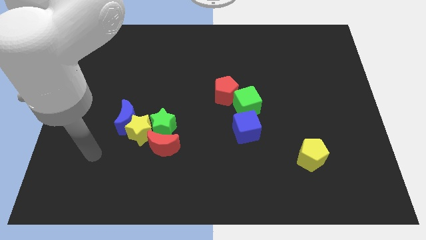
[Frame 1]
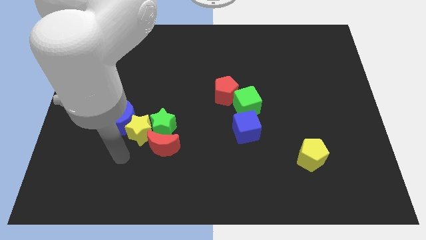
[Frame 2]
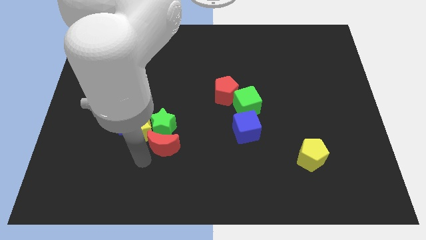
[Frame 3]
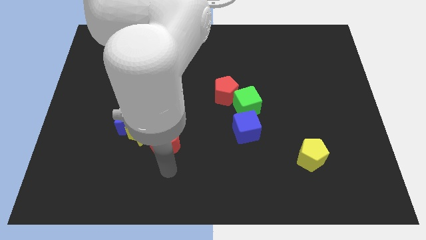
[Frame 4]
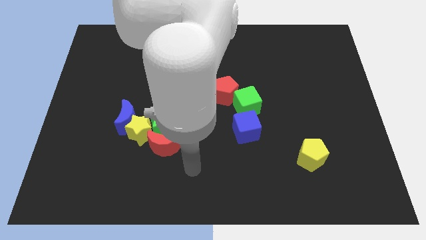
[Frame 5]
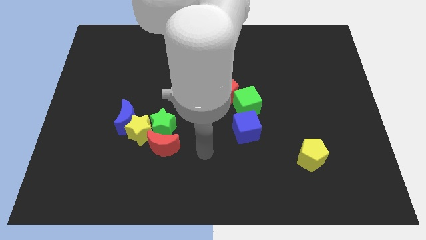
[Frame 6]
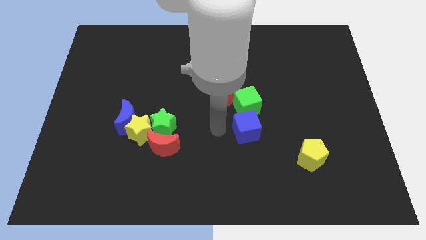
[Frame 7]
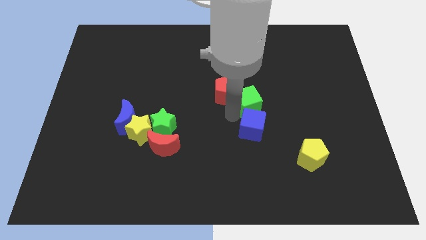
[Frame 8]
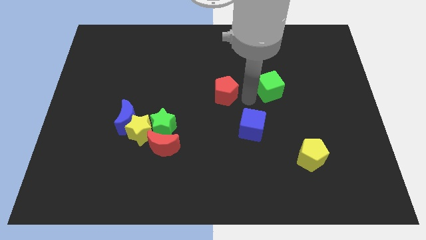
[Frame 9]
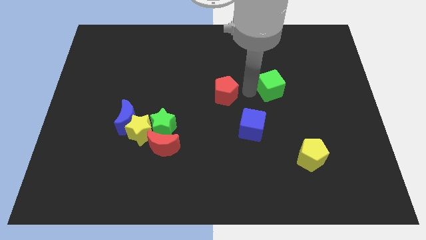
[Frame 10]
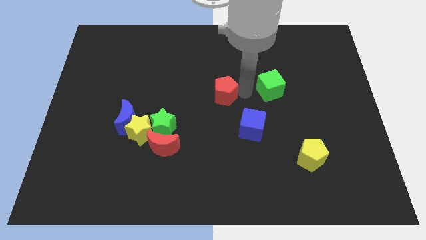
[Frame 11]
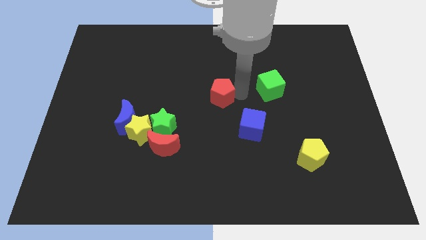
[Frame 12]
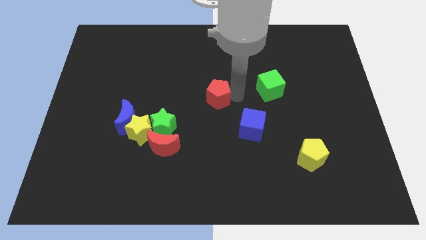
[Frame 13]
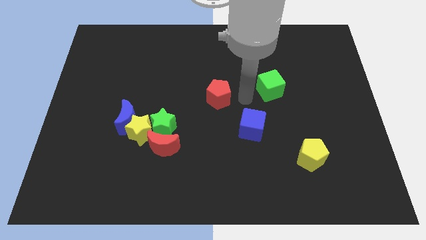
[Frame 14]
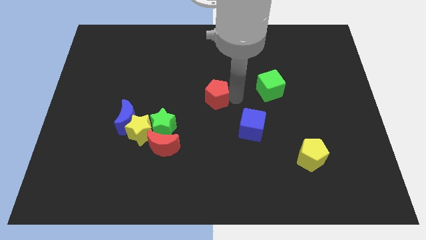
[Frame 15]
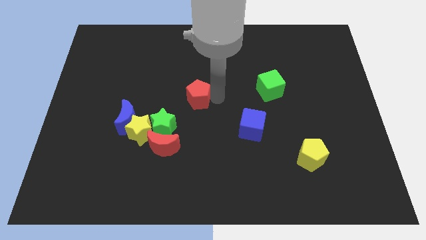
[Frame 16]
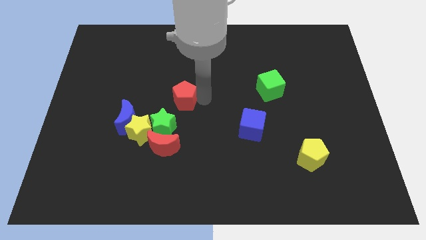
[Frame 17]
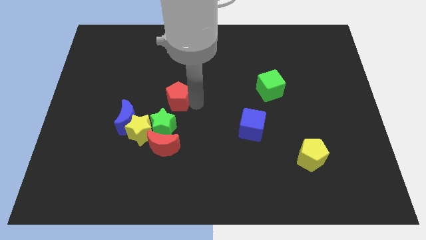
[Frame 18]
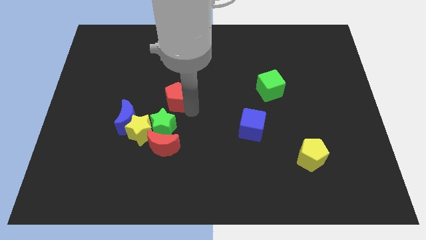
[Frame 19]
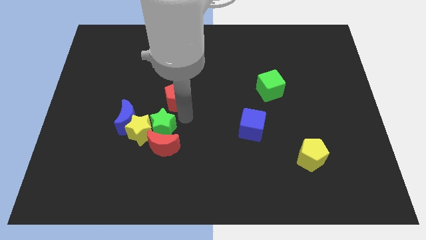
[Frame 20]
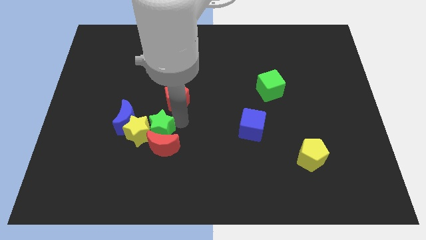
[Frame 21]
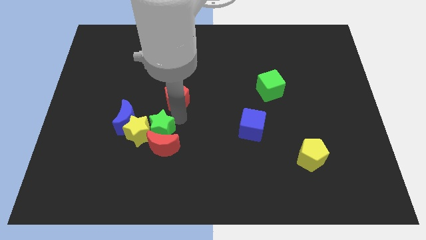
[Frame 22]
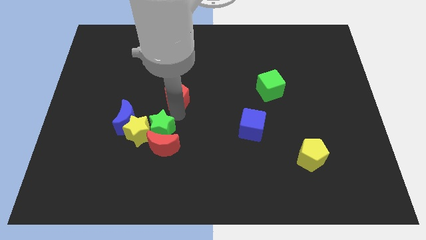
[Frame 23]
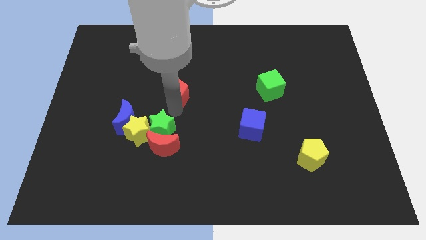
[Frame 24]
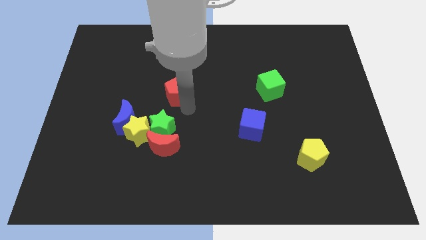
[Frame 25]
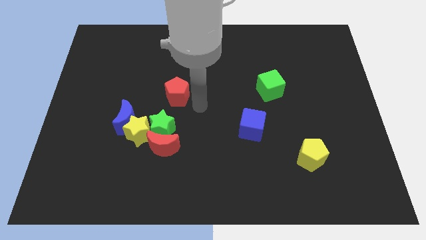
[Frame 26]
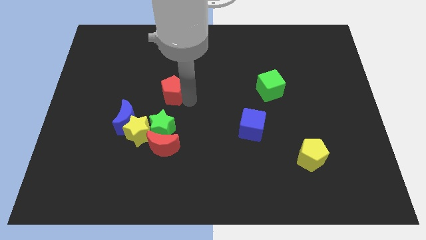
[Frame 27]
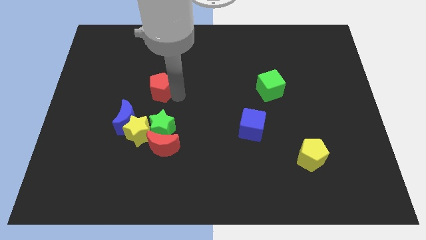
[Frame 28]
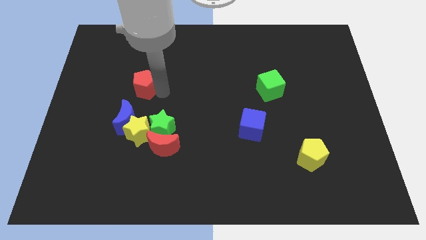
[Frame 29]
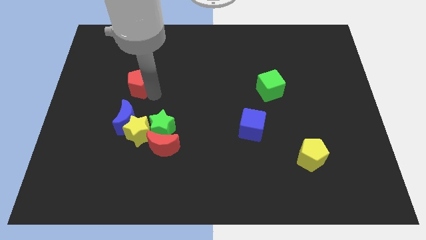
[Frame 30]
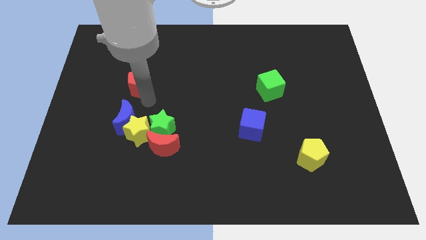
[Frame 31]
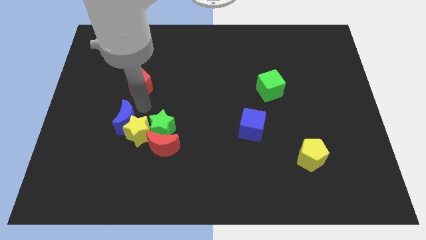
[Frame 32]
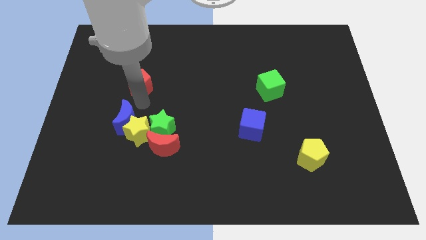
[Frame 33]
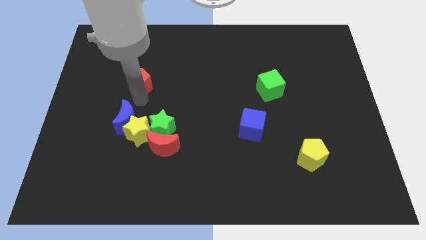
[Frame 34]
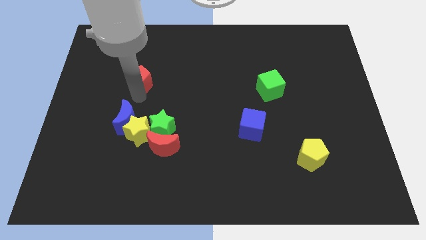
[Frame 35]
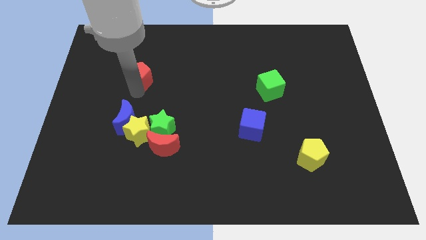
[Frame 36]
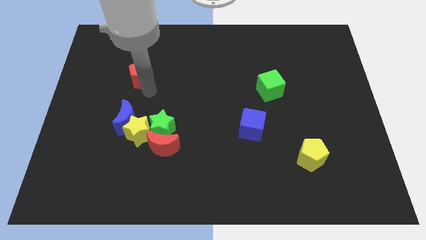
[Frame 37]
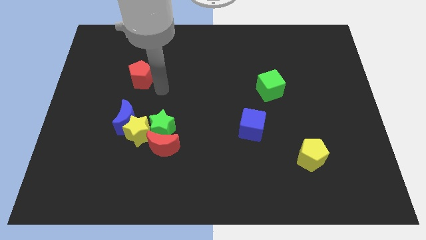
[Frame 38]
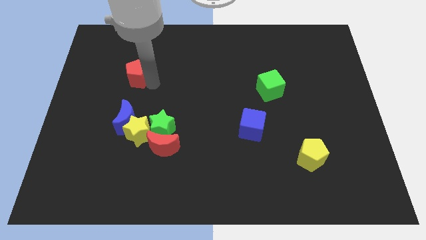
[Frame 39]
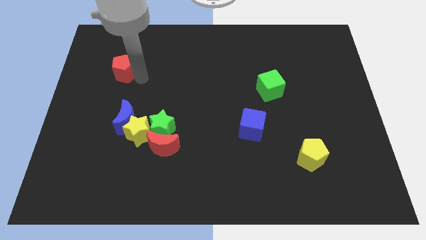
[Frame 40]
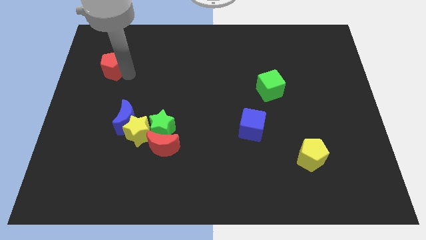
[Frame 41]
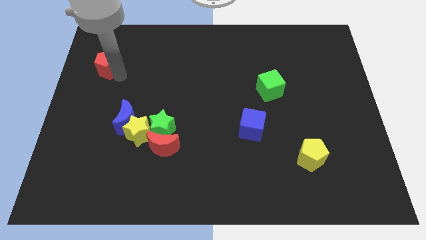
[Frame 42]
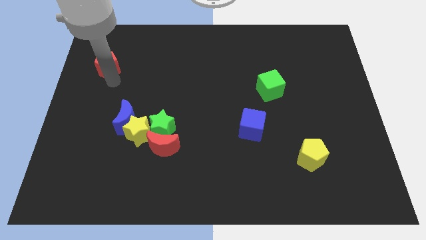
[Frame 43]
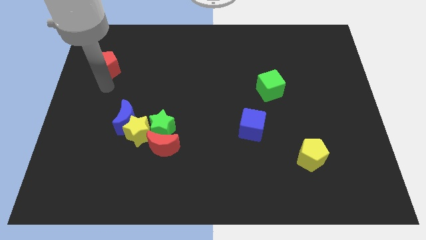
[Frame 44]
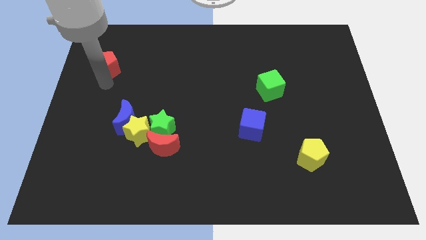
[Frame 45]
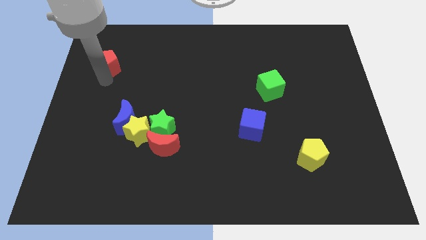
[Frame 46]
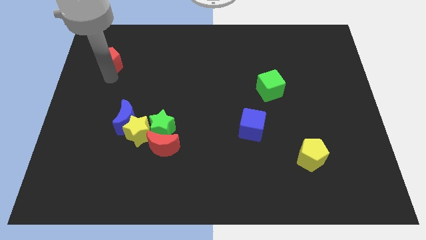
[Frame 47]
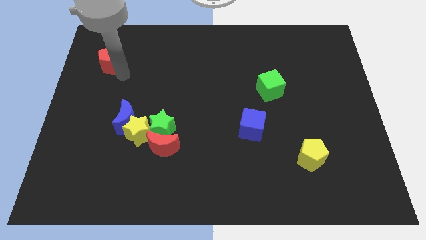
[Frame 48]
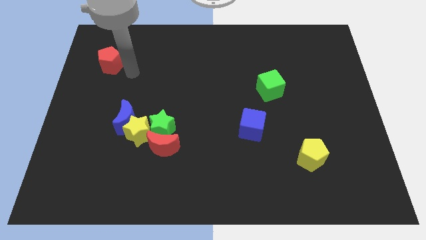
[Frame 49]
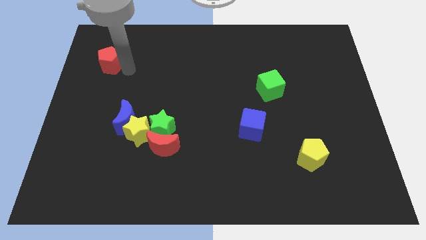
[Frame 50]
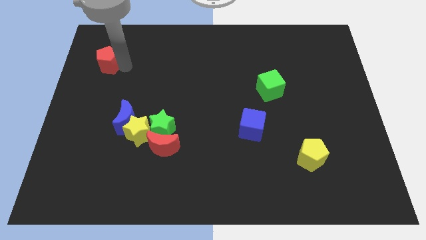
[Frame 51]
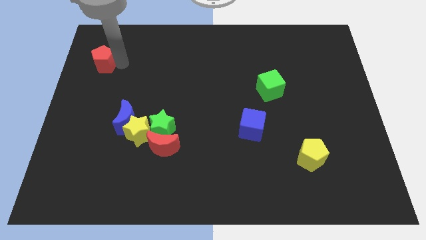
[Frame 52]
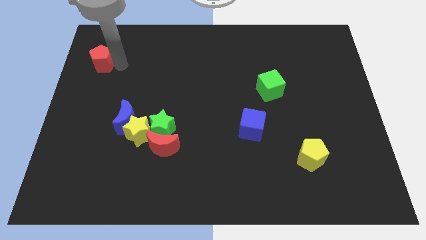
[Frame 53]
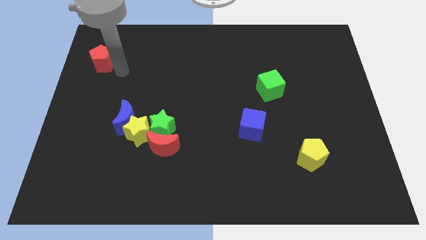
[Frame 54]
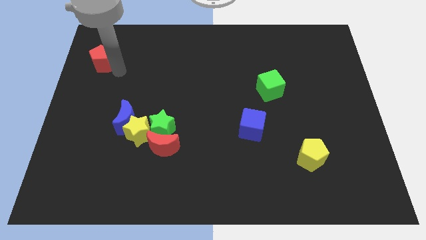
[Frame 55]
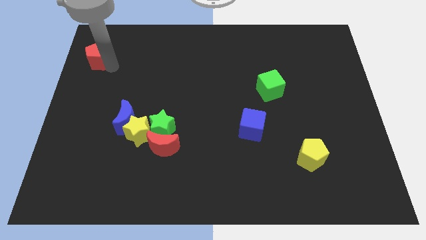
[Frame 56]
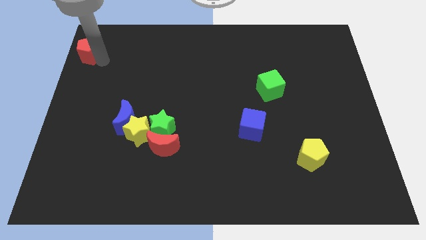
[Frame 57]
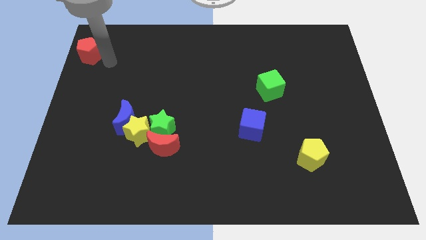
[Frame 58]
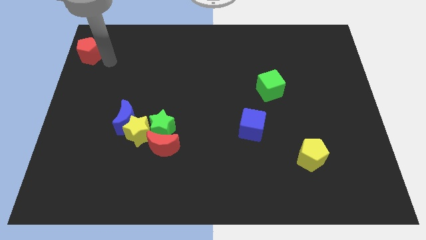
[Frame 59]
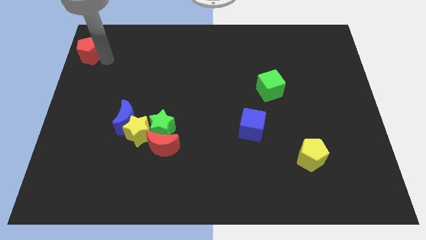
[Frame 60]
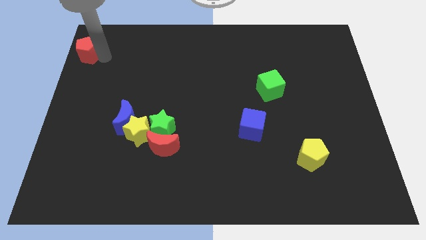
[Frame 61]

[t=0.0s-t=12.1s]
slide the red pentagon to the top left
